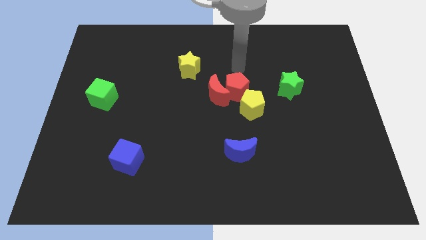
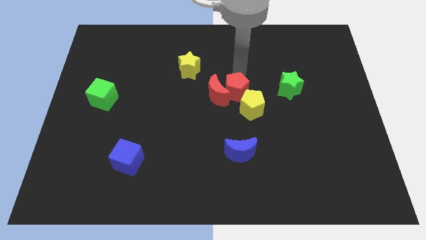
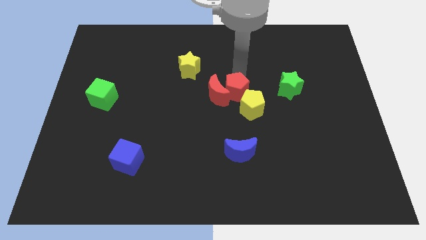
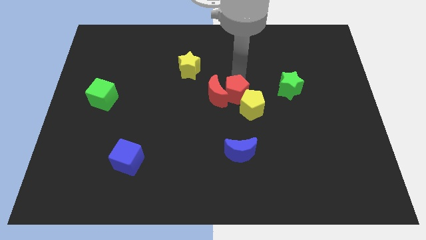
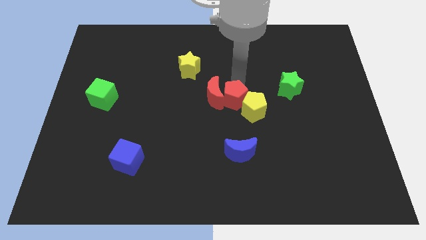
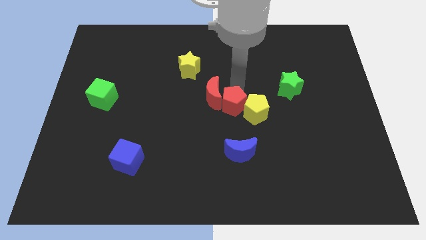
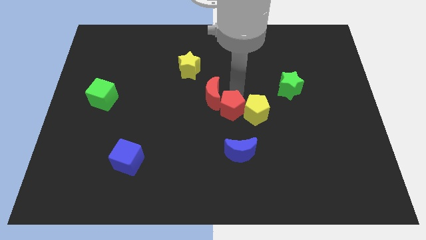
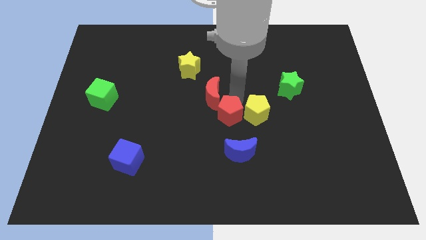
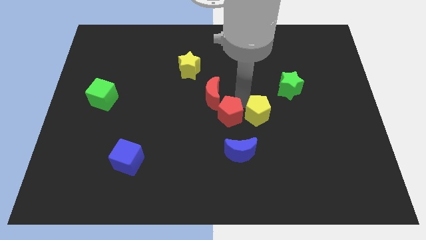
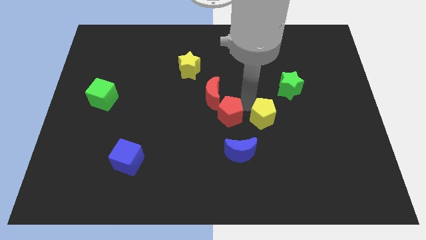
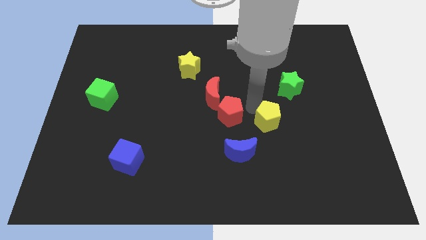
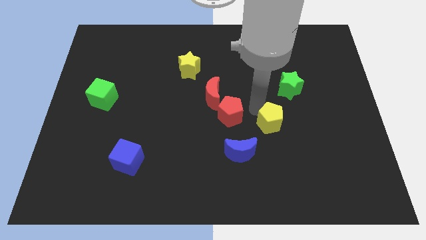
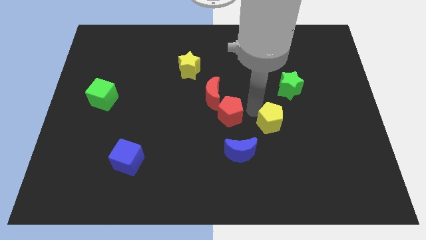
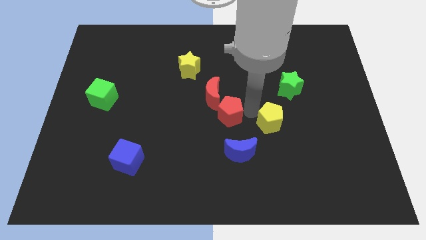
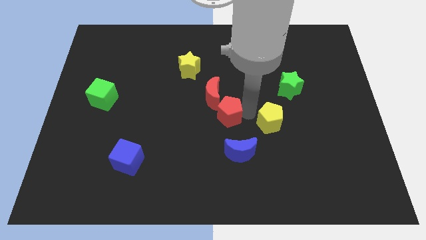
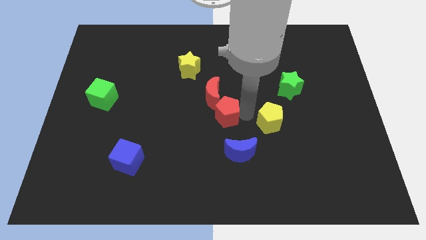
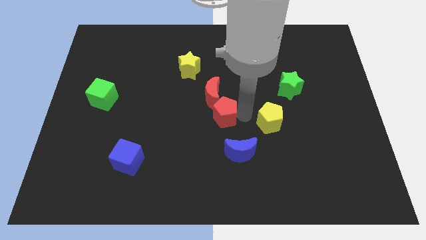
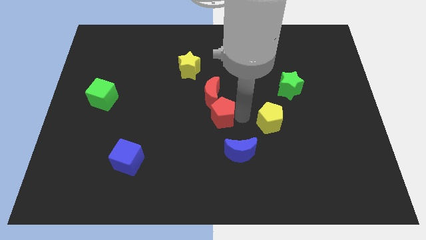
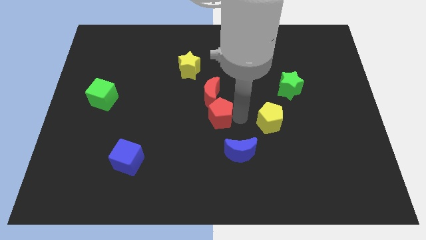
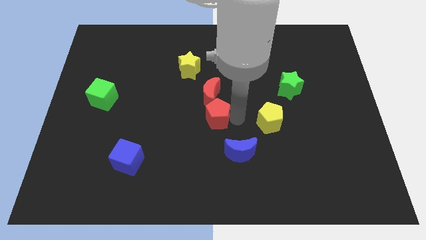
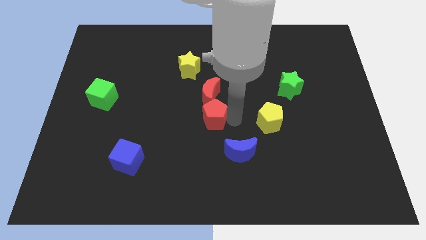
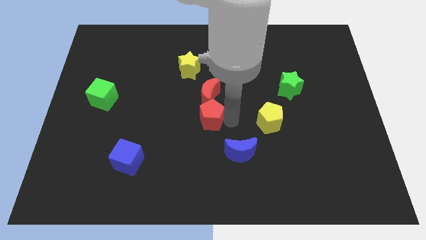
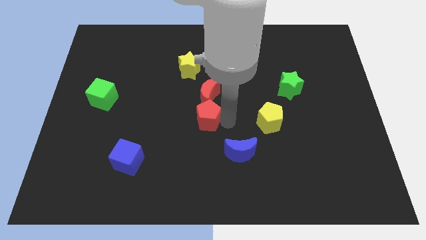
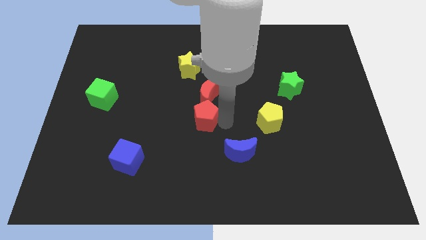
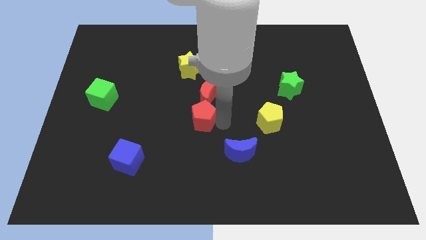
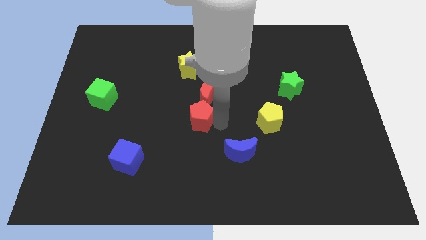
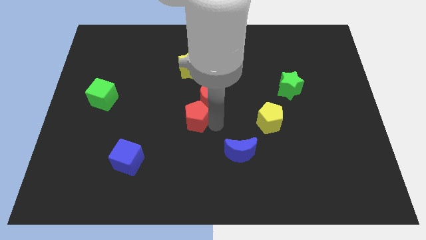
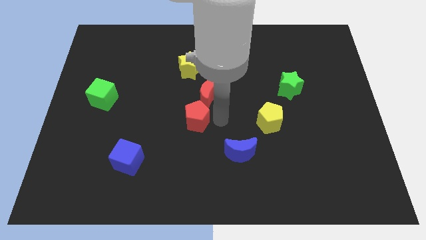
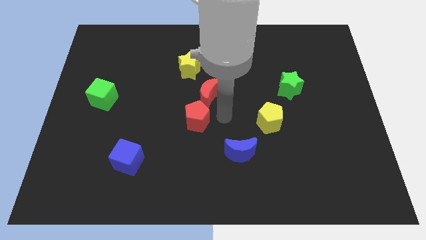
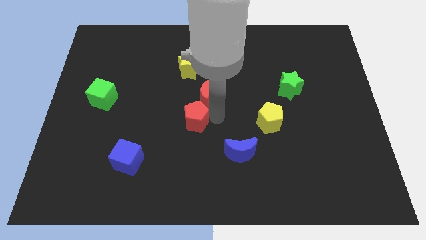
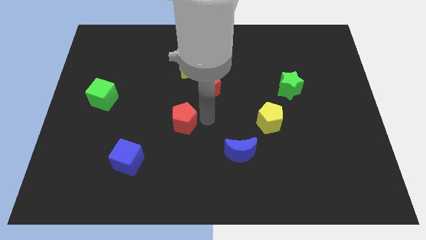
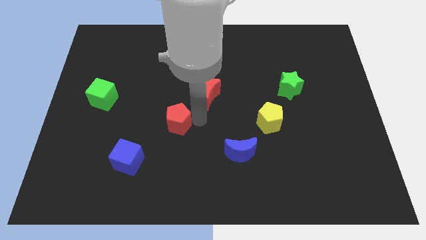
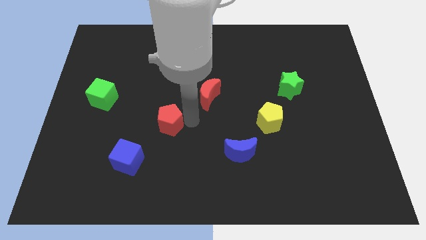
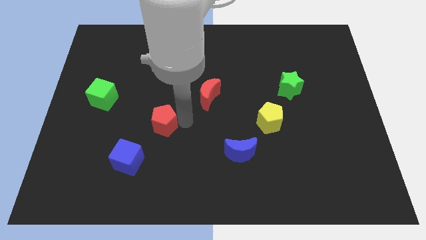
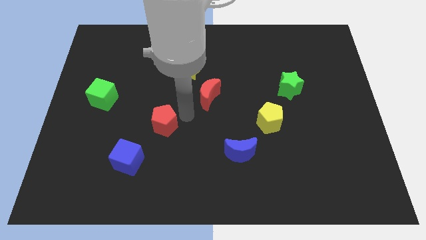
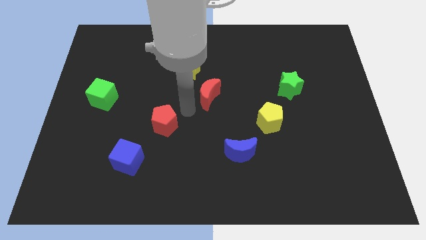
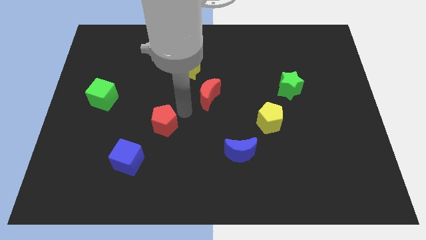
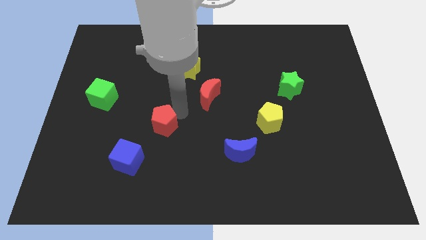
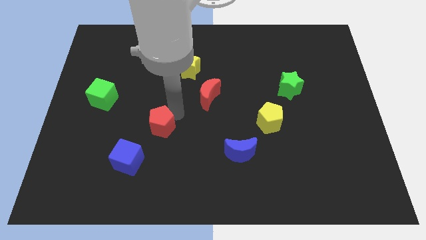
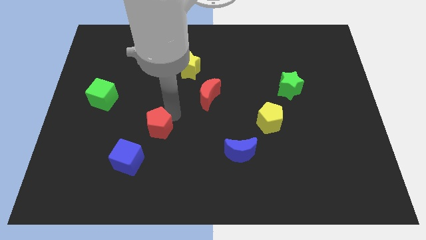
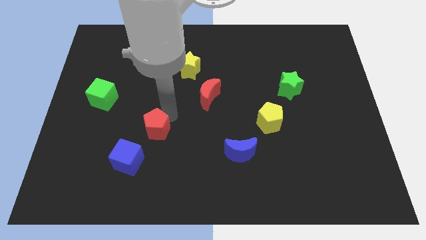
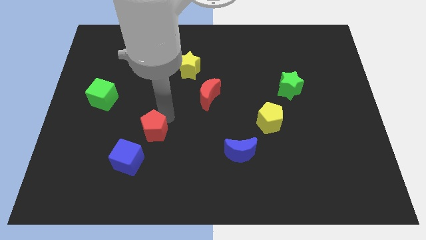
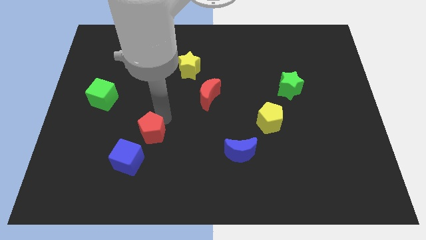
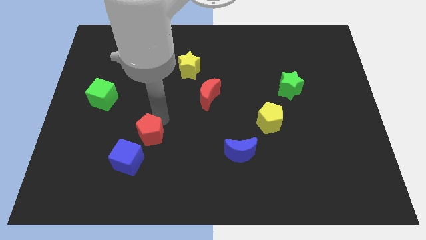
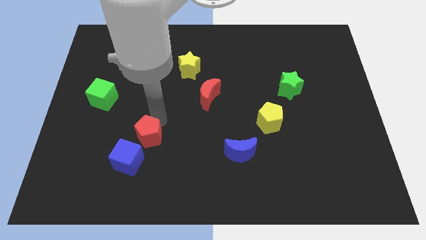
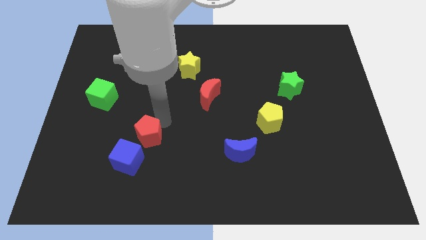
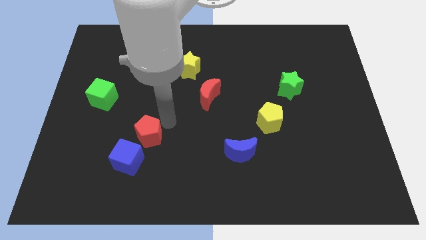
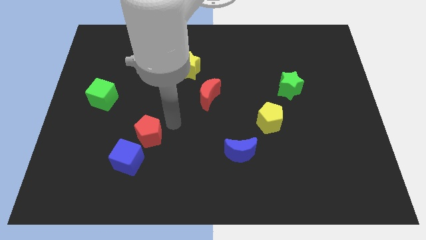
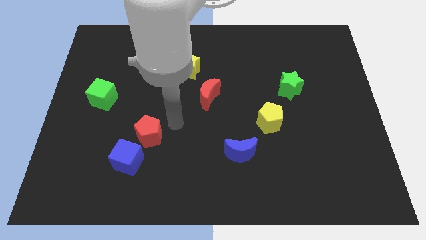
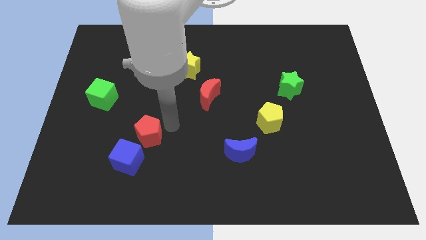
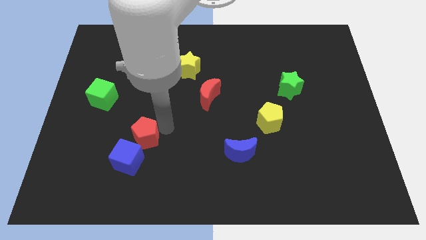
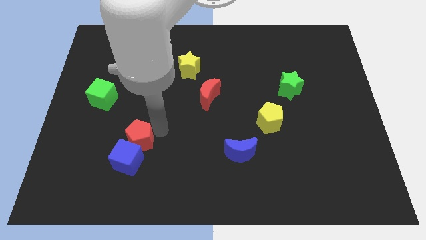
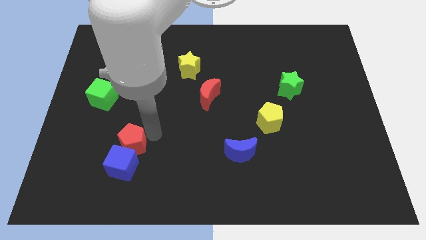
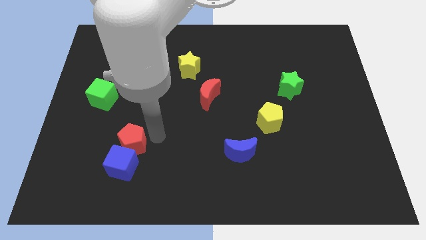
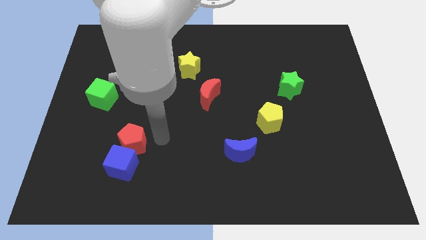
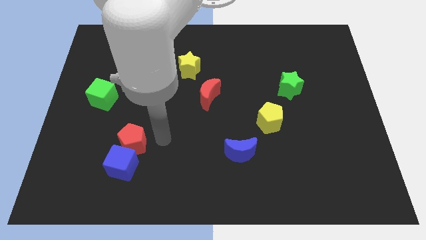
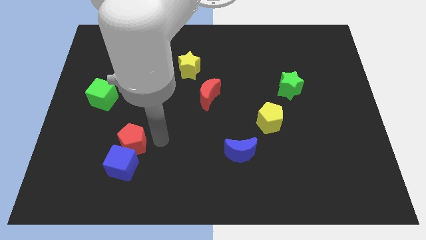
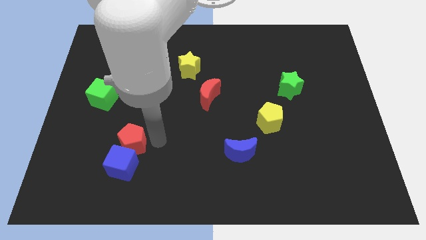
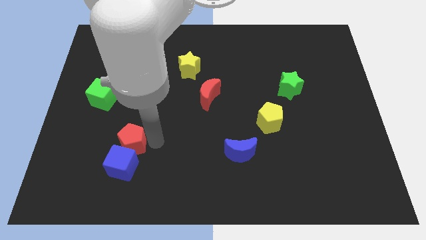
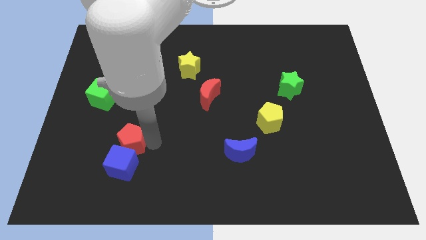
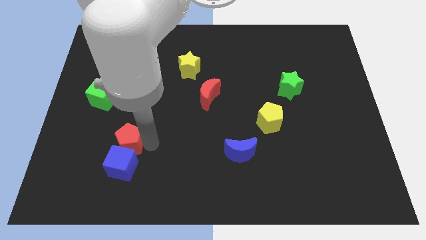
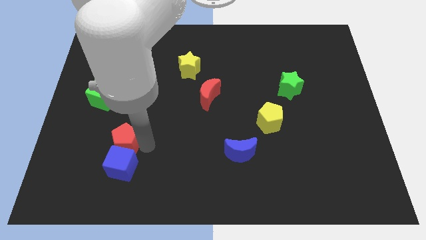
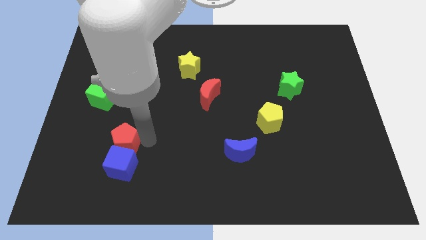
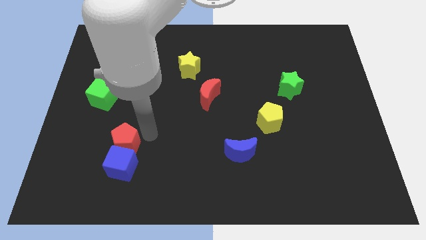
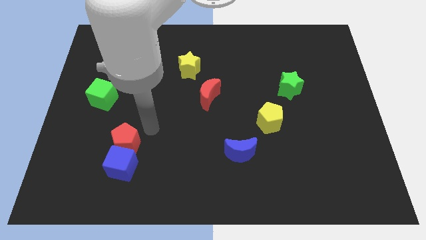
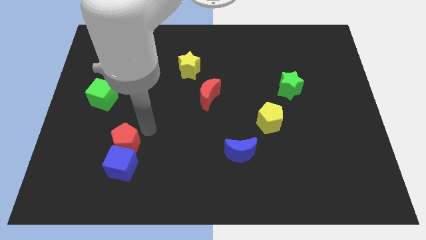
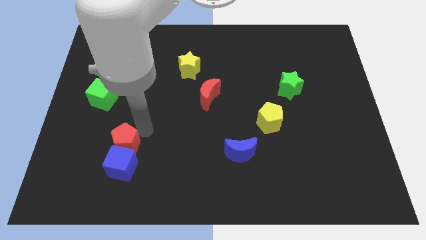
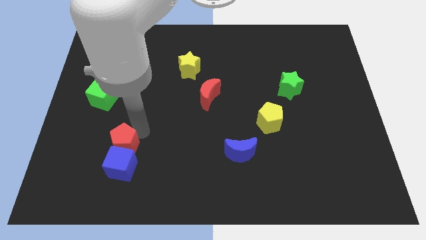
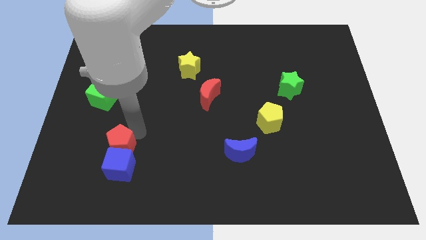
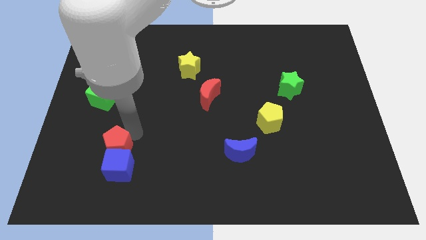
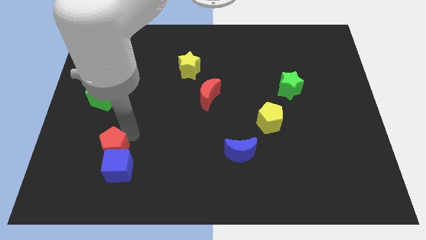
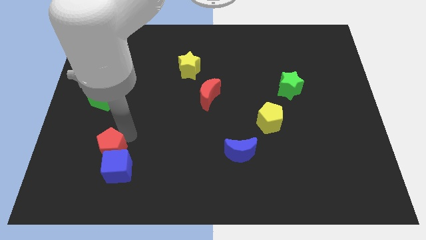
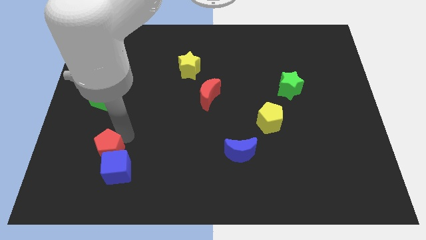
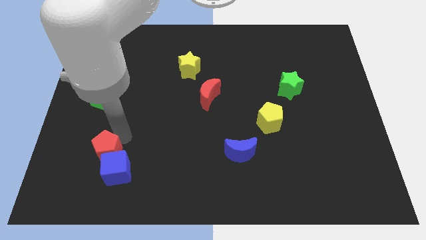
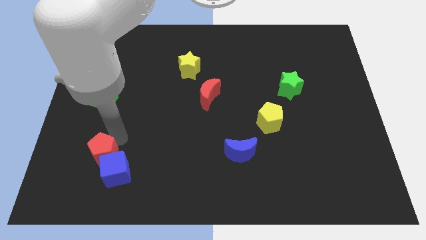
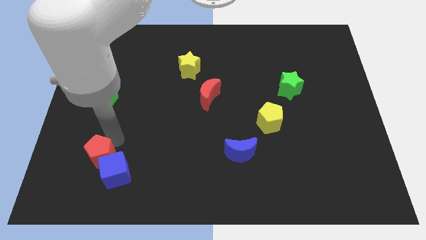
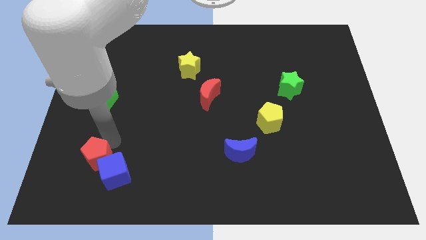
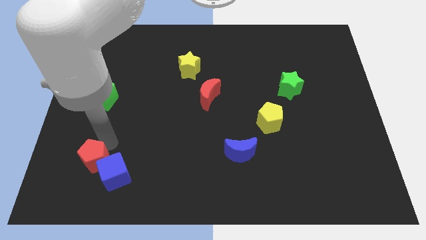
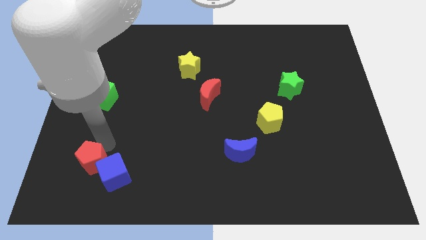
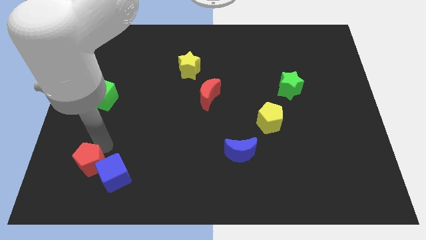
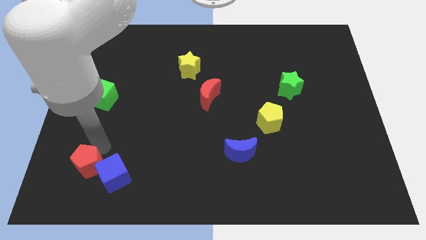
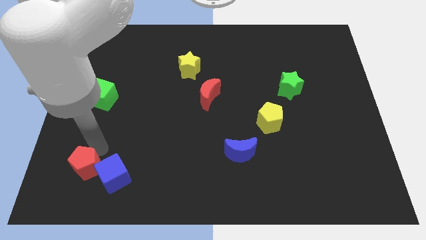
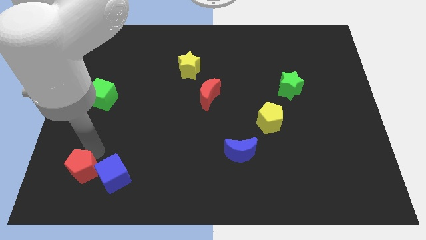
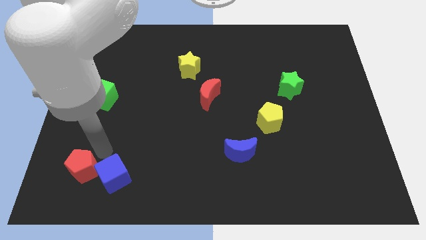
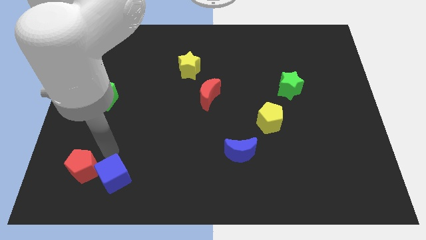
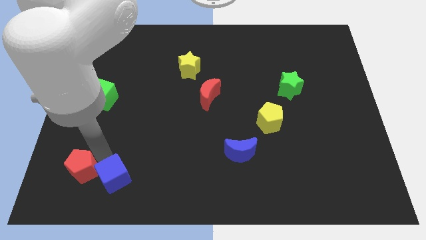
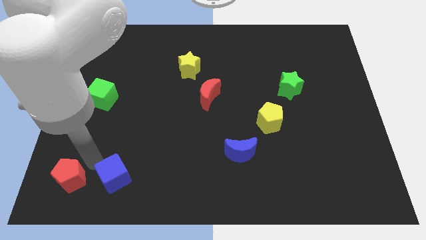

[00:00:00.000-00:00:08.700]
move the red pentagon to the lower left corner
